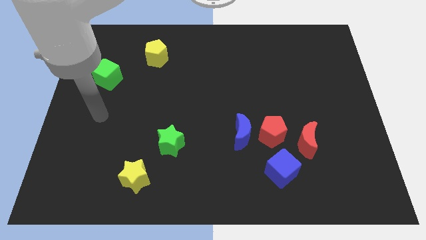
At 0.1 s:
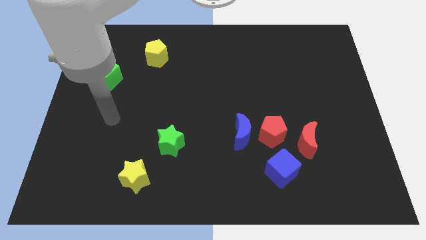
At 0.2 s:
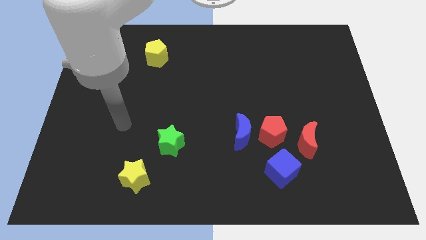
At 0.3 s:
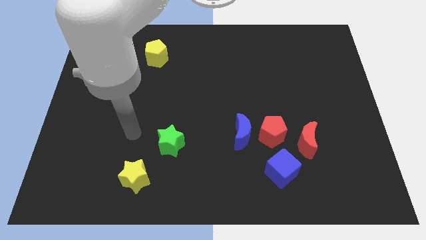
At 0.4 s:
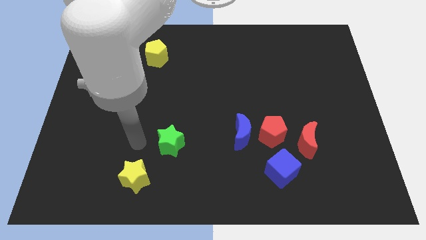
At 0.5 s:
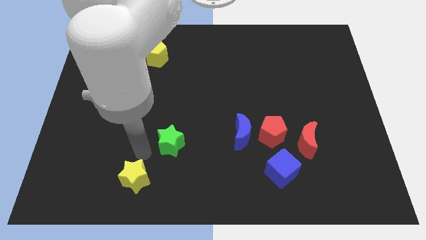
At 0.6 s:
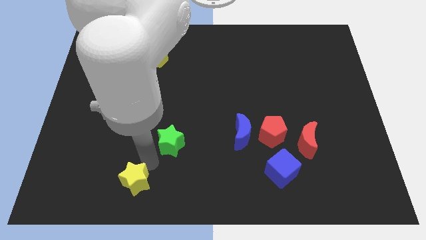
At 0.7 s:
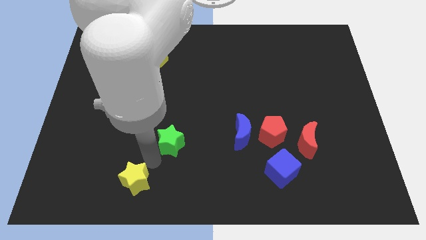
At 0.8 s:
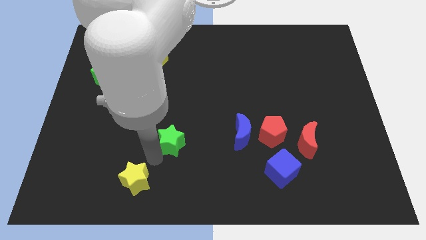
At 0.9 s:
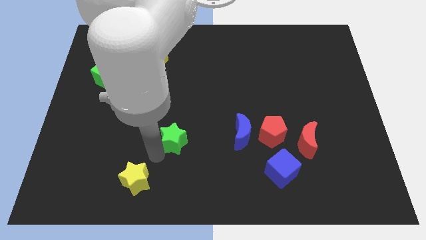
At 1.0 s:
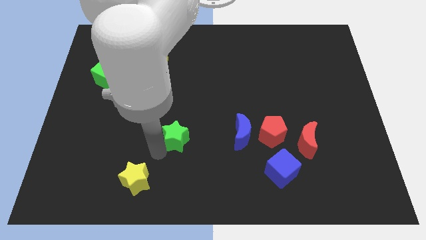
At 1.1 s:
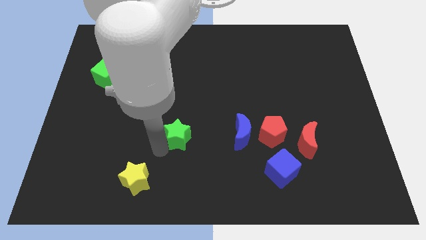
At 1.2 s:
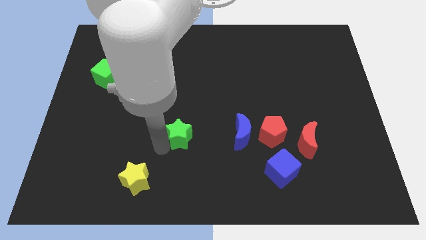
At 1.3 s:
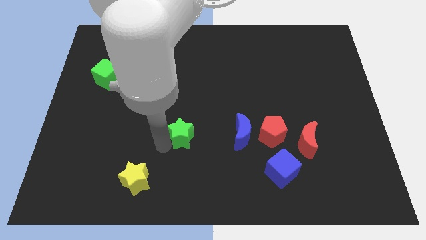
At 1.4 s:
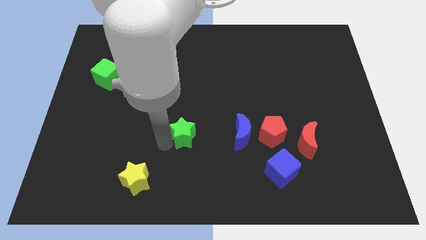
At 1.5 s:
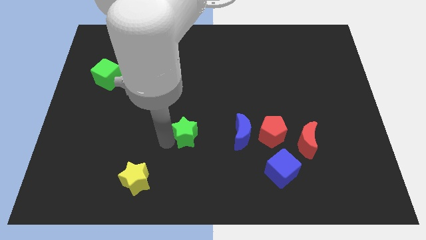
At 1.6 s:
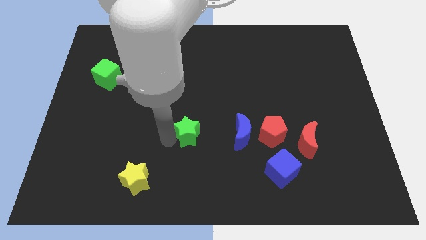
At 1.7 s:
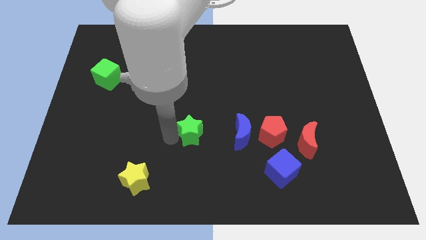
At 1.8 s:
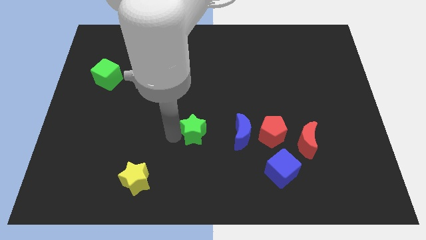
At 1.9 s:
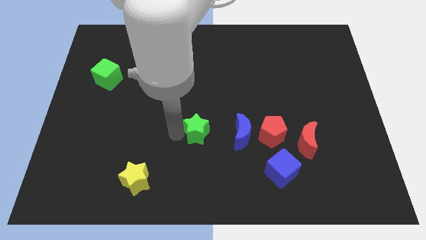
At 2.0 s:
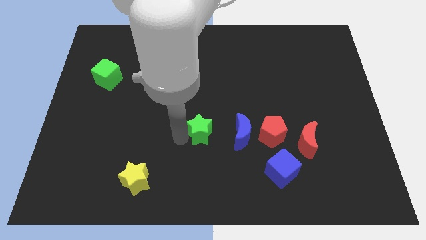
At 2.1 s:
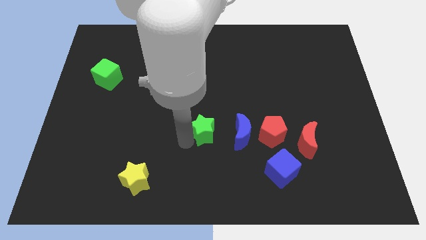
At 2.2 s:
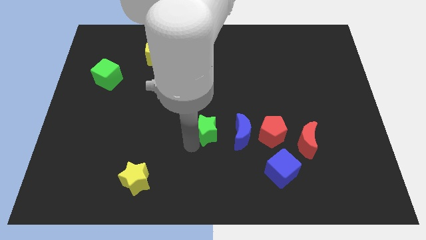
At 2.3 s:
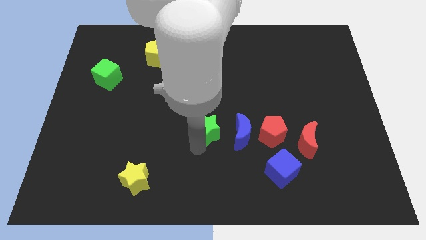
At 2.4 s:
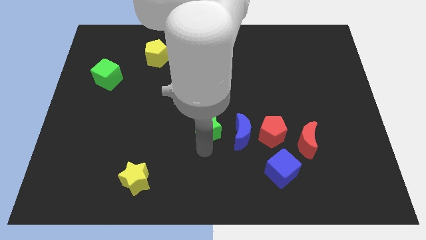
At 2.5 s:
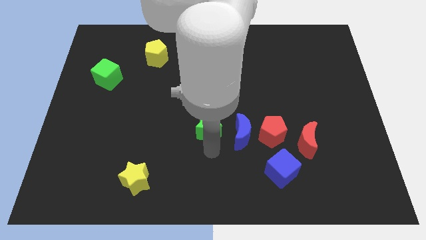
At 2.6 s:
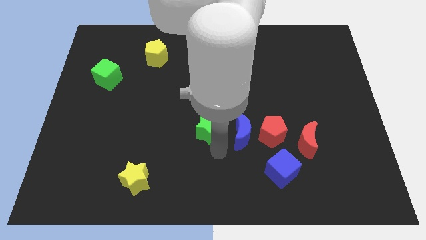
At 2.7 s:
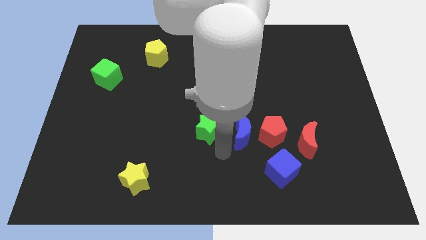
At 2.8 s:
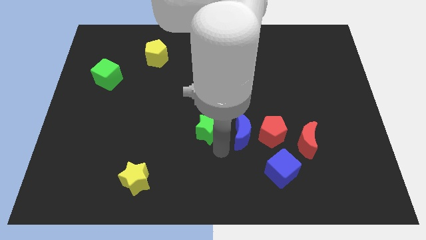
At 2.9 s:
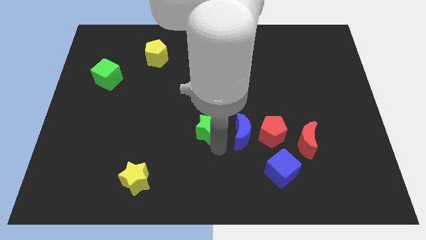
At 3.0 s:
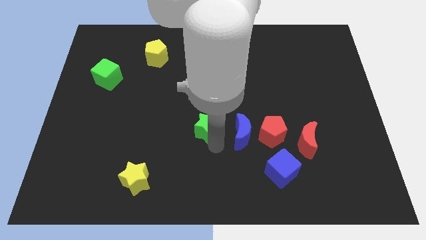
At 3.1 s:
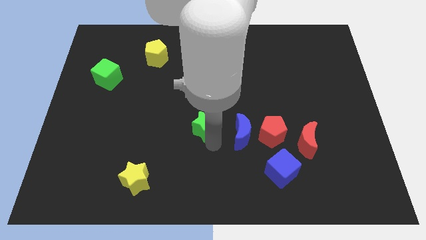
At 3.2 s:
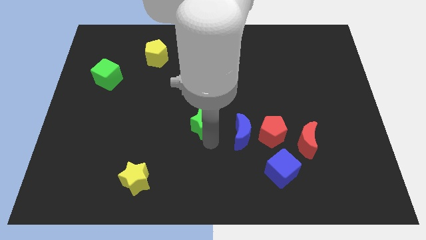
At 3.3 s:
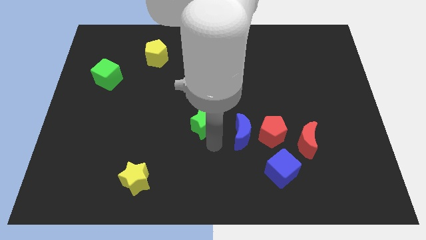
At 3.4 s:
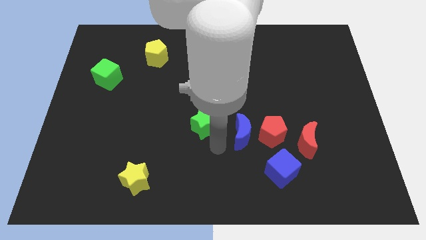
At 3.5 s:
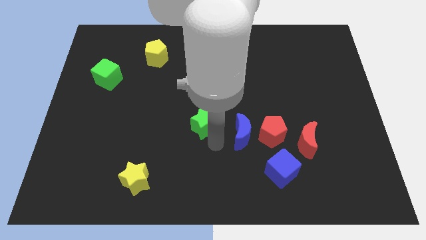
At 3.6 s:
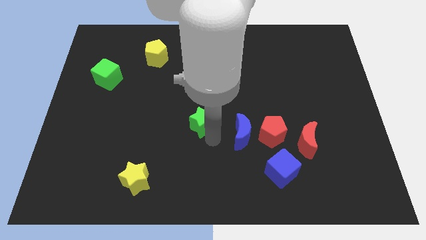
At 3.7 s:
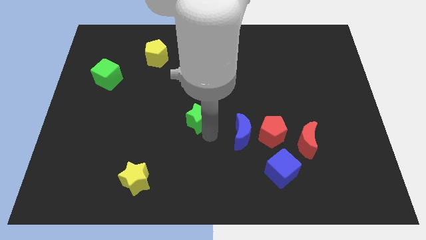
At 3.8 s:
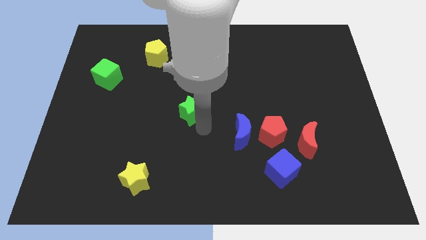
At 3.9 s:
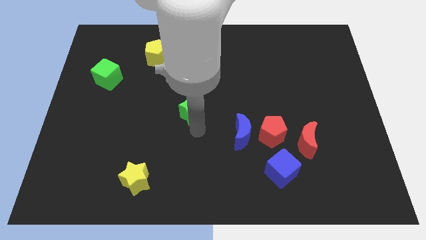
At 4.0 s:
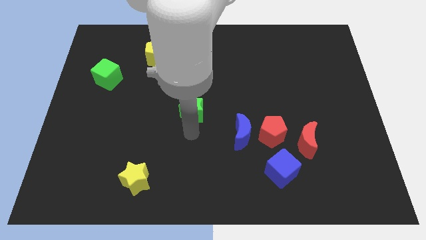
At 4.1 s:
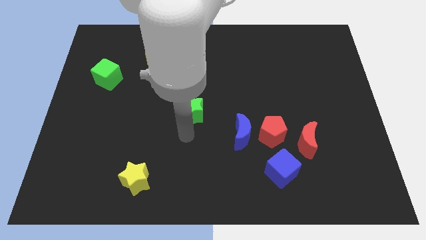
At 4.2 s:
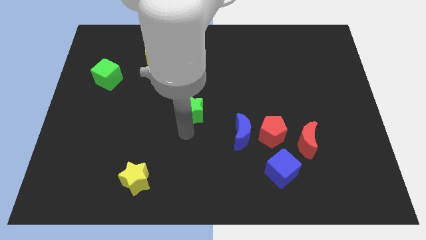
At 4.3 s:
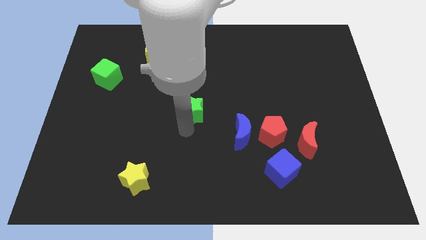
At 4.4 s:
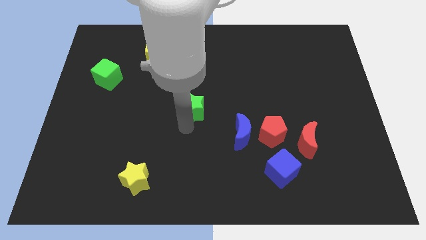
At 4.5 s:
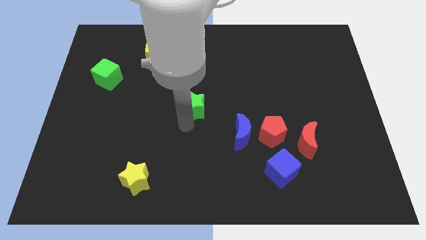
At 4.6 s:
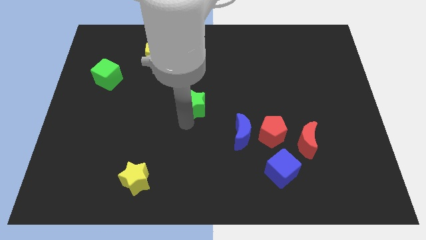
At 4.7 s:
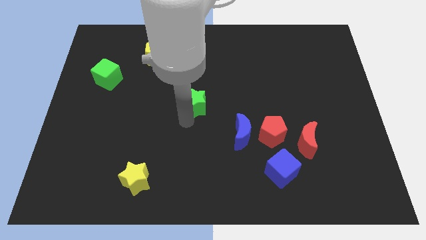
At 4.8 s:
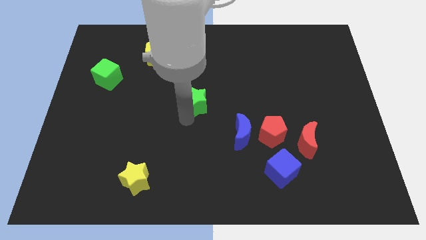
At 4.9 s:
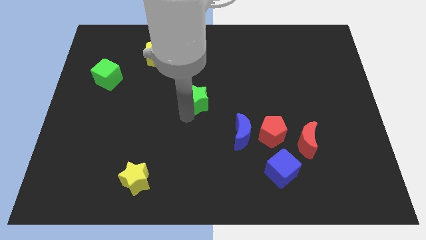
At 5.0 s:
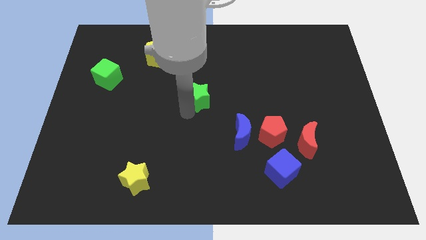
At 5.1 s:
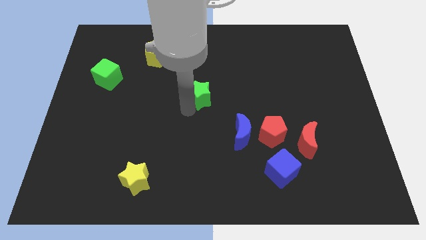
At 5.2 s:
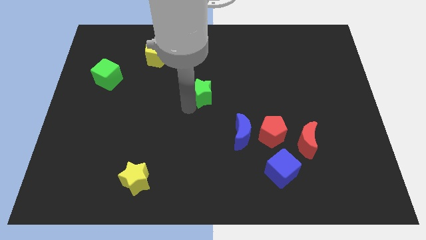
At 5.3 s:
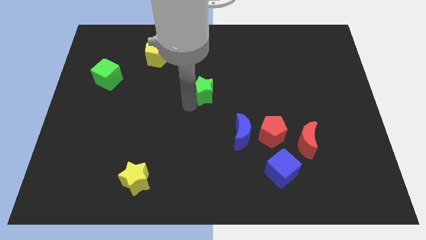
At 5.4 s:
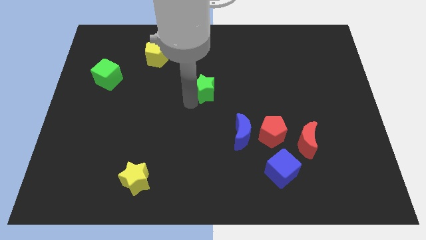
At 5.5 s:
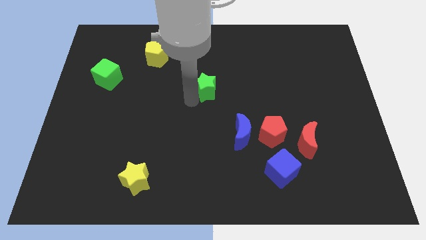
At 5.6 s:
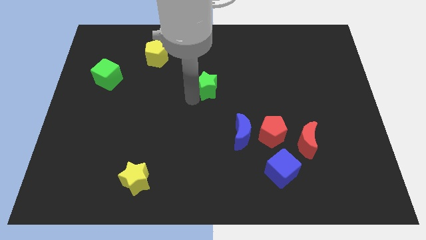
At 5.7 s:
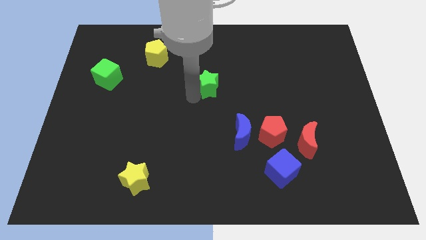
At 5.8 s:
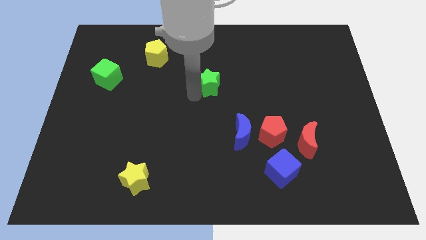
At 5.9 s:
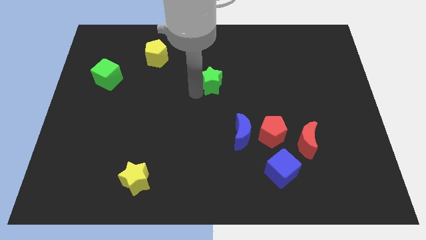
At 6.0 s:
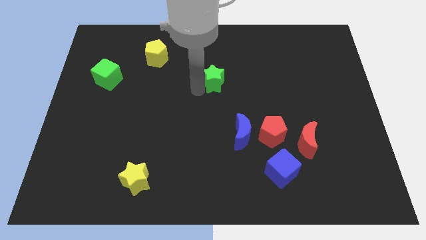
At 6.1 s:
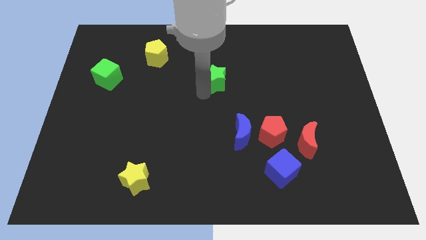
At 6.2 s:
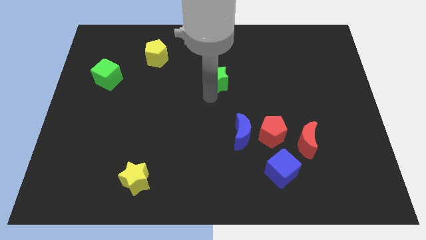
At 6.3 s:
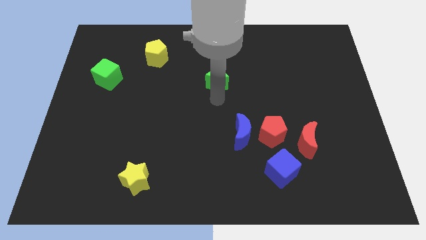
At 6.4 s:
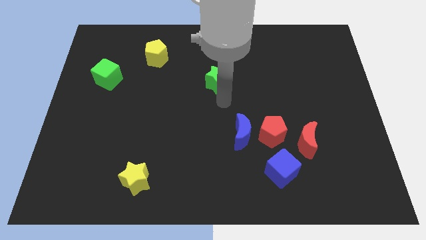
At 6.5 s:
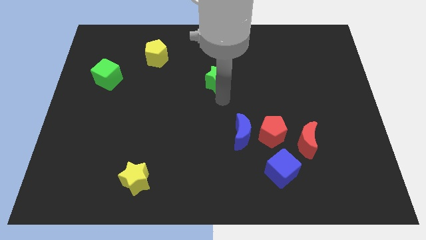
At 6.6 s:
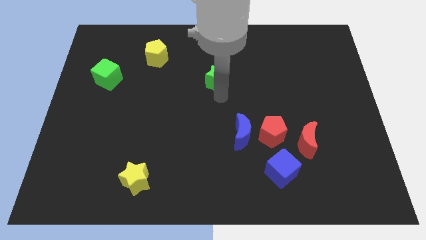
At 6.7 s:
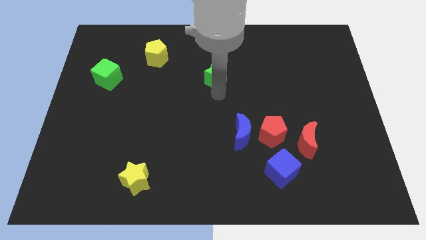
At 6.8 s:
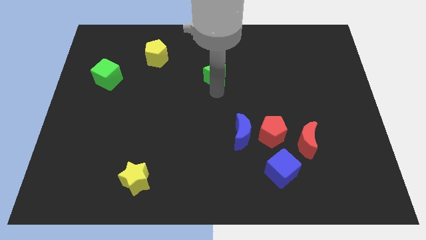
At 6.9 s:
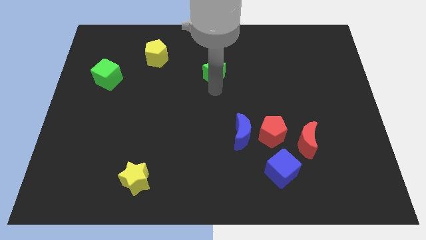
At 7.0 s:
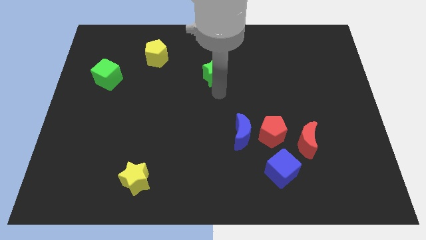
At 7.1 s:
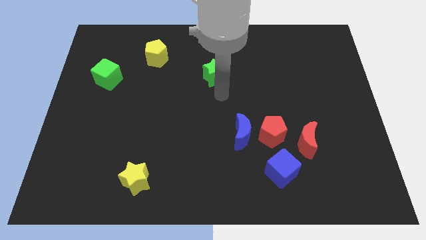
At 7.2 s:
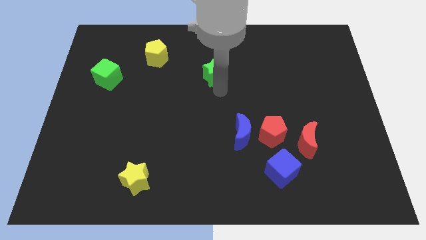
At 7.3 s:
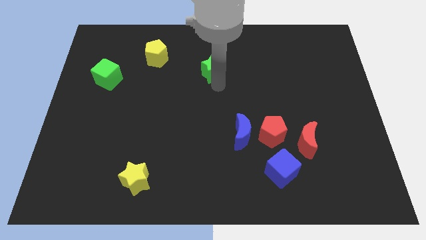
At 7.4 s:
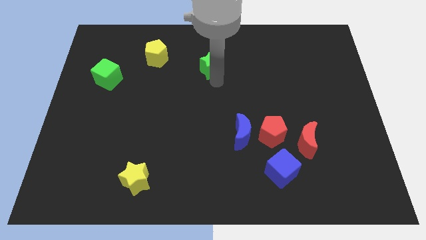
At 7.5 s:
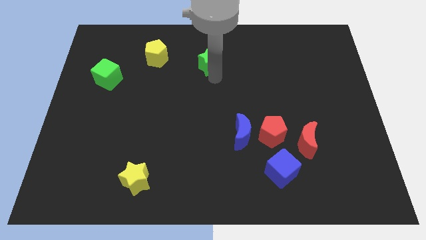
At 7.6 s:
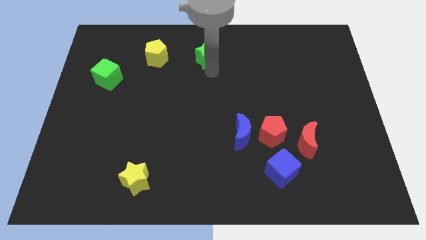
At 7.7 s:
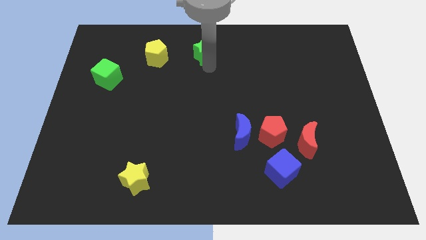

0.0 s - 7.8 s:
move the green star to the towards your base
